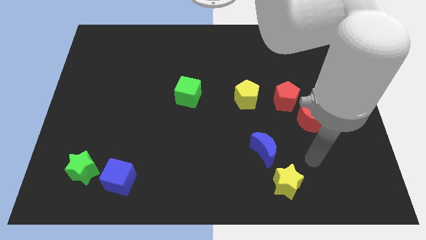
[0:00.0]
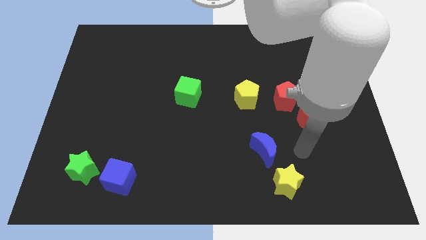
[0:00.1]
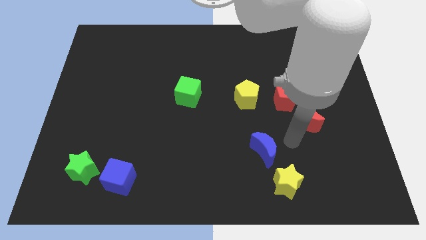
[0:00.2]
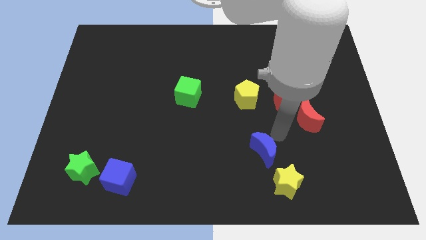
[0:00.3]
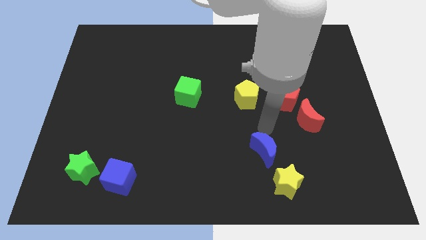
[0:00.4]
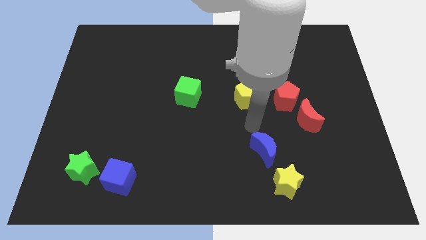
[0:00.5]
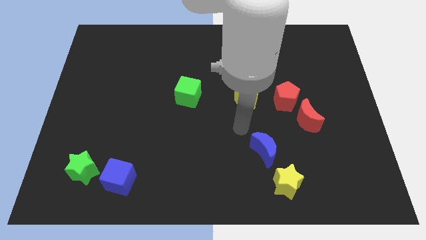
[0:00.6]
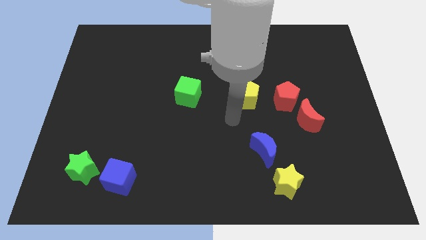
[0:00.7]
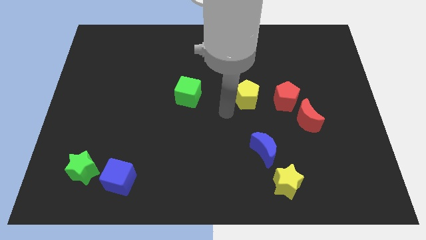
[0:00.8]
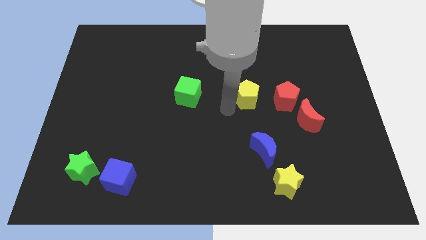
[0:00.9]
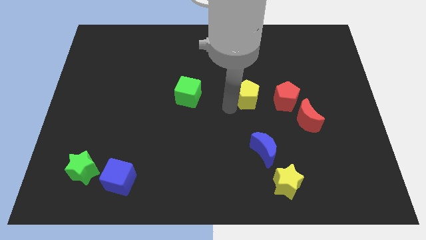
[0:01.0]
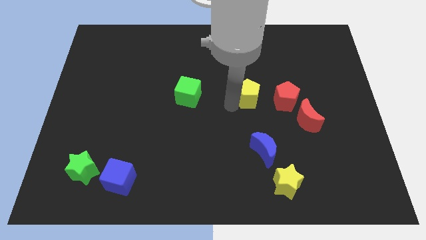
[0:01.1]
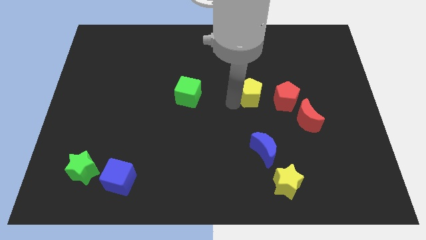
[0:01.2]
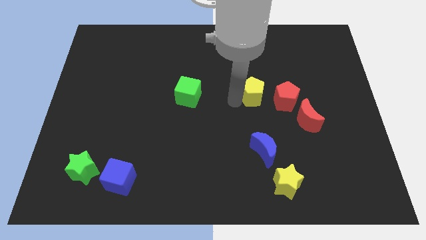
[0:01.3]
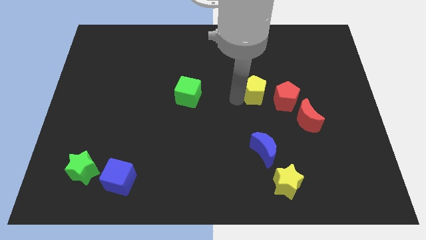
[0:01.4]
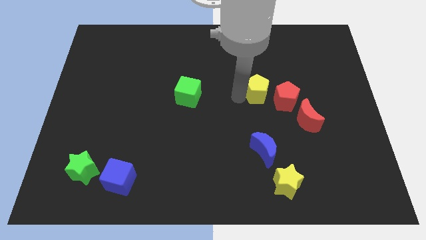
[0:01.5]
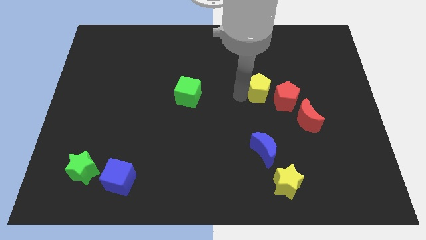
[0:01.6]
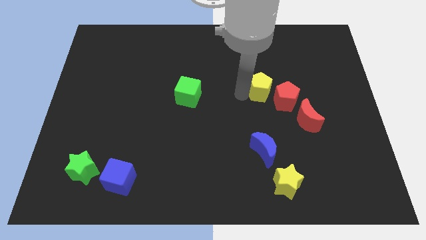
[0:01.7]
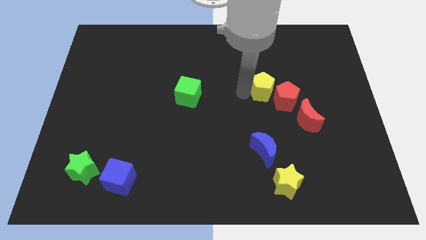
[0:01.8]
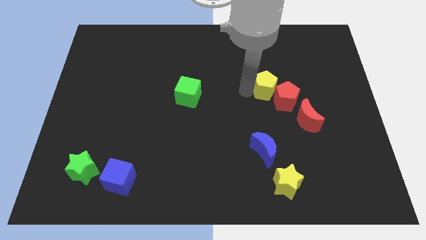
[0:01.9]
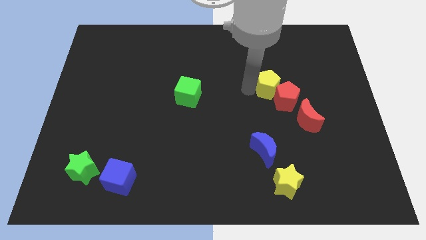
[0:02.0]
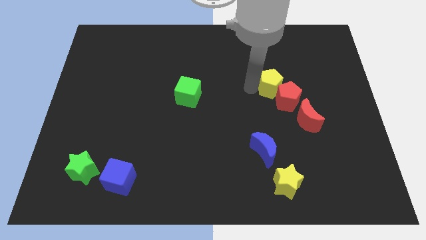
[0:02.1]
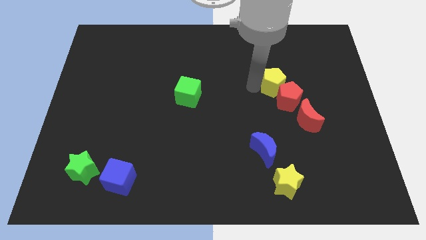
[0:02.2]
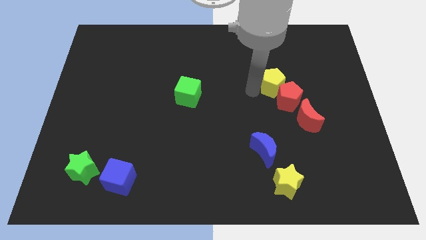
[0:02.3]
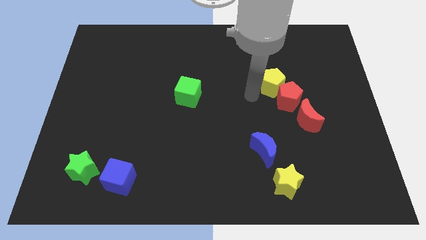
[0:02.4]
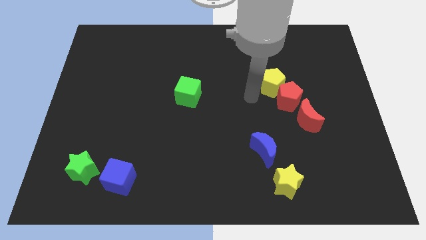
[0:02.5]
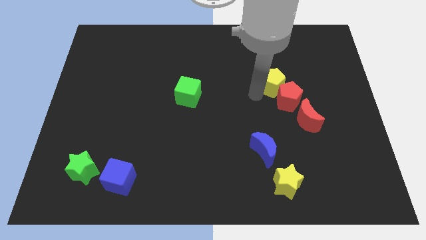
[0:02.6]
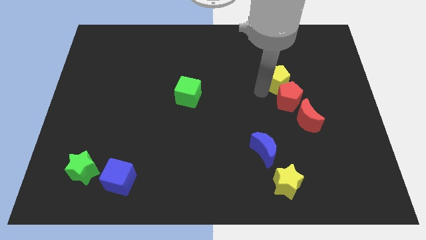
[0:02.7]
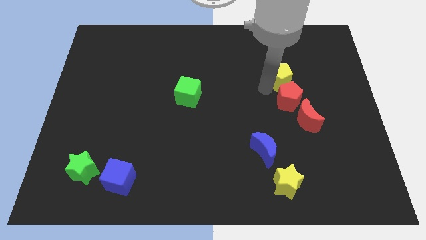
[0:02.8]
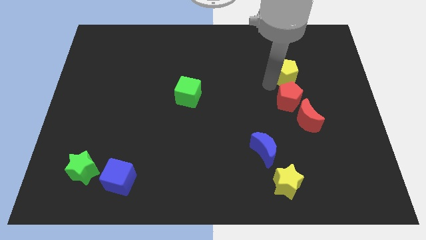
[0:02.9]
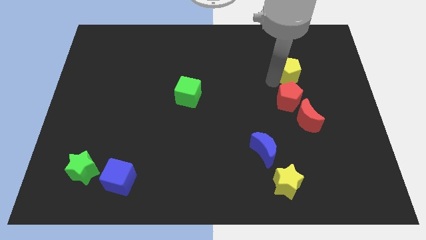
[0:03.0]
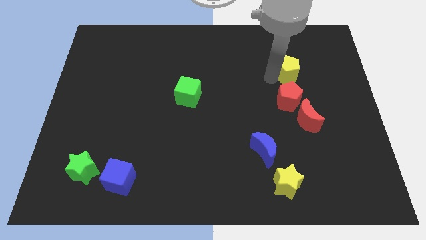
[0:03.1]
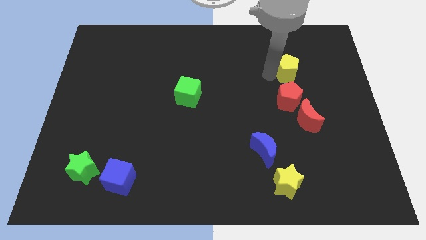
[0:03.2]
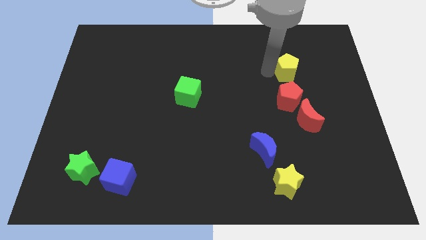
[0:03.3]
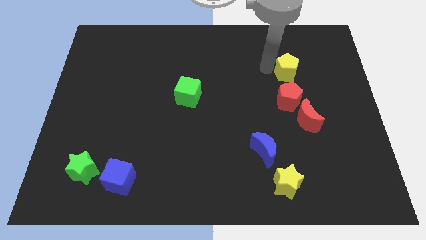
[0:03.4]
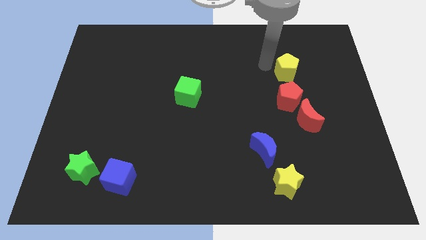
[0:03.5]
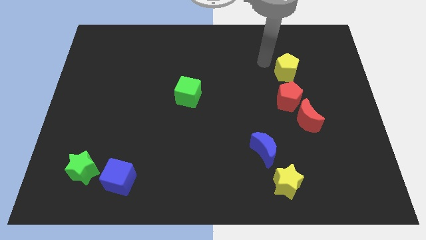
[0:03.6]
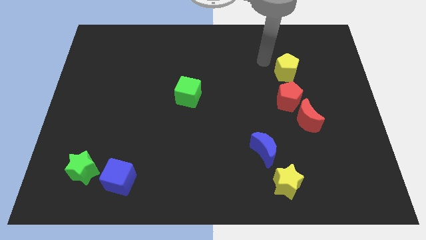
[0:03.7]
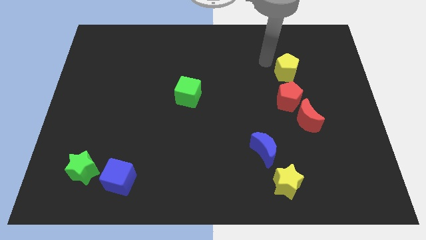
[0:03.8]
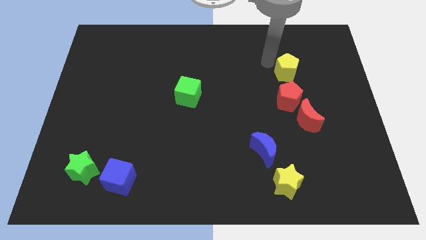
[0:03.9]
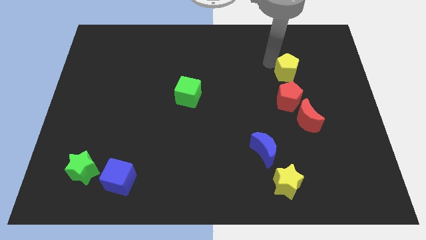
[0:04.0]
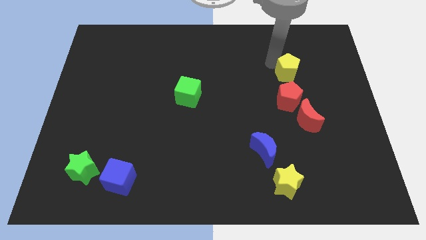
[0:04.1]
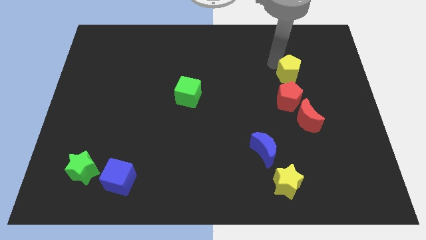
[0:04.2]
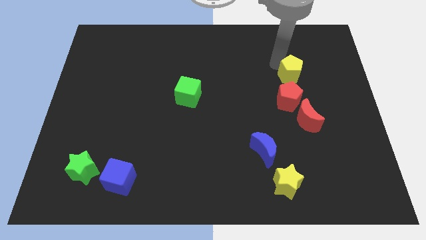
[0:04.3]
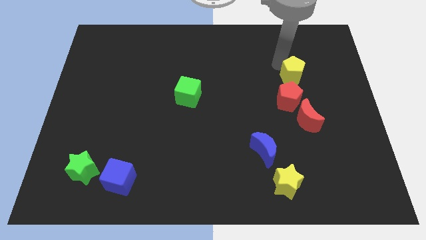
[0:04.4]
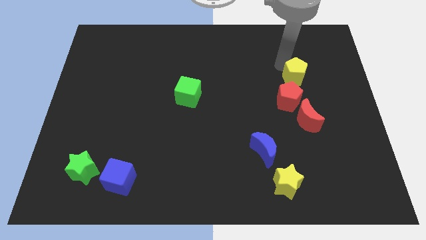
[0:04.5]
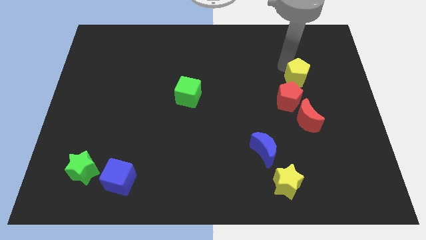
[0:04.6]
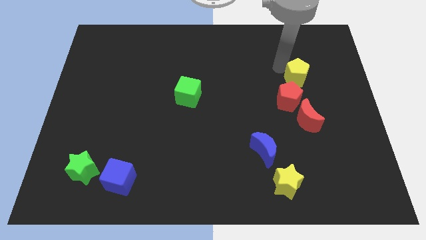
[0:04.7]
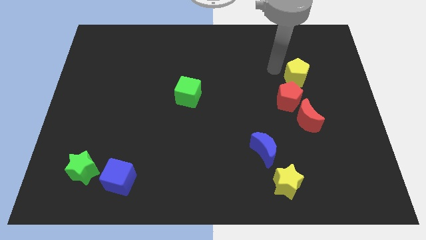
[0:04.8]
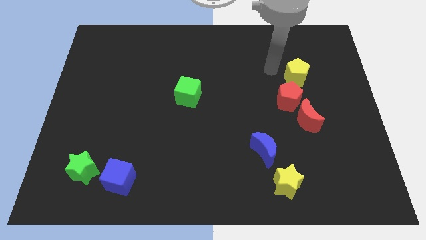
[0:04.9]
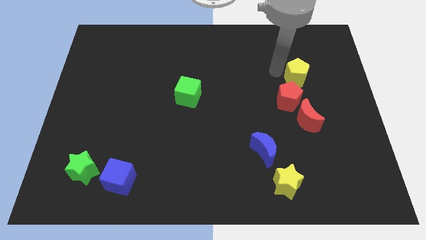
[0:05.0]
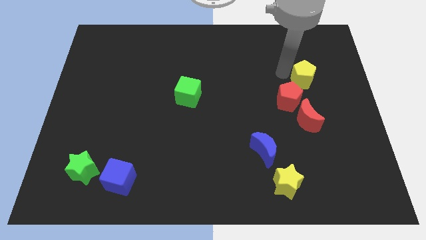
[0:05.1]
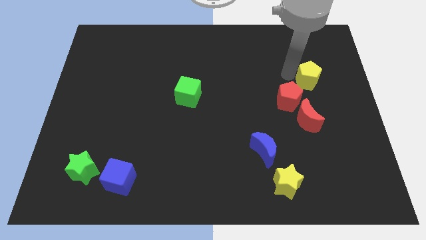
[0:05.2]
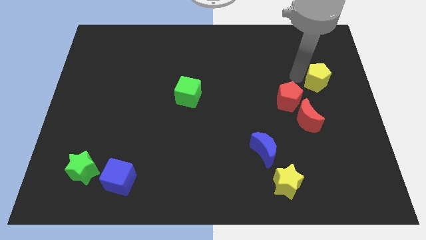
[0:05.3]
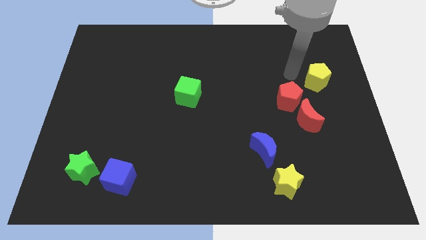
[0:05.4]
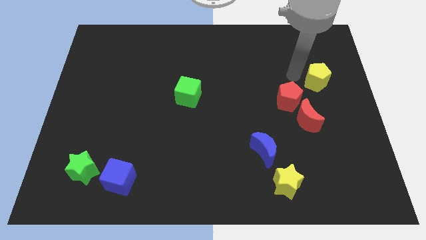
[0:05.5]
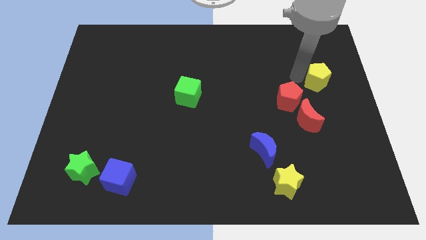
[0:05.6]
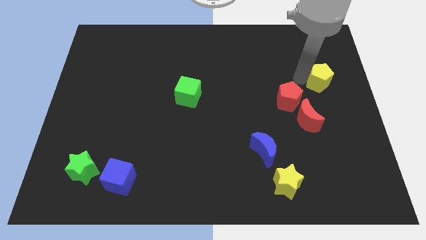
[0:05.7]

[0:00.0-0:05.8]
push the yellow pentagon to the center right

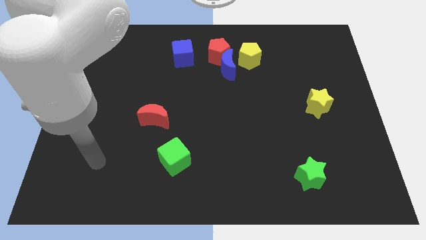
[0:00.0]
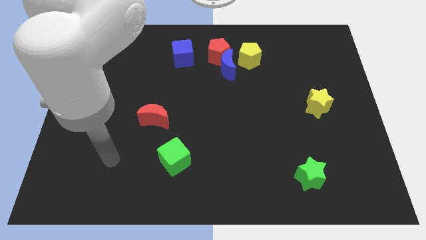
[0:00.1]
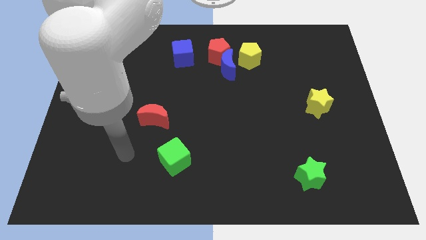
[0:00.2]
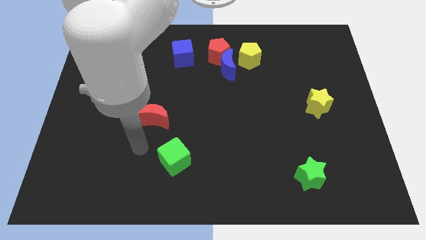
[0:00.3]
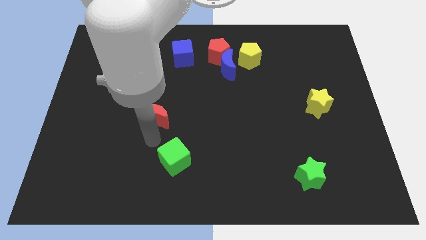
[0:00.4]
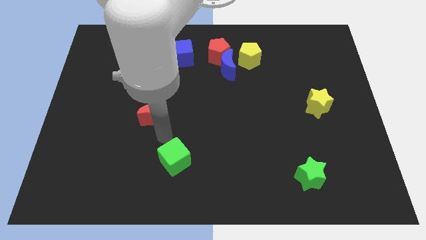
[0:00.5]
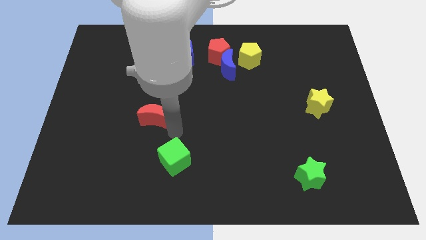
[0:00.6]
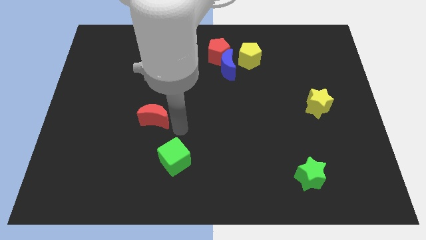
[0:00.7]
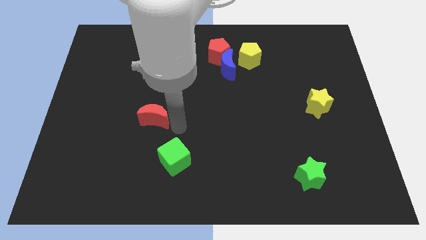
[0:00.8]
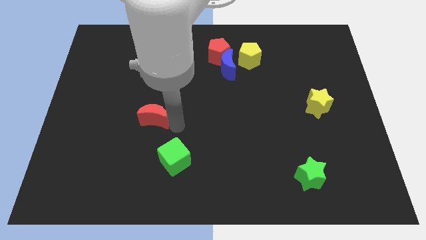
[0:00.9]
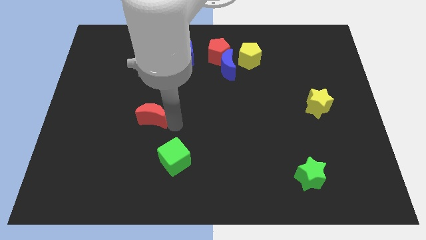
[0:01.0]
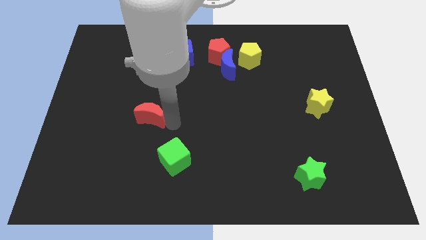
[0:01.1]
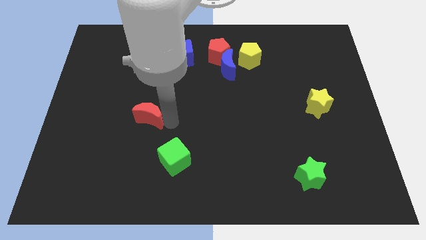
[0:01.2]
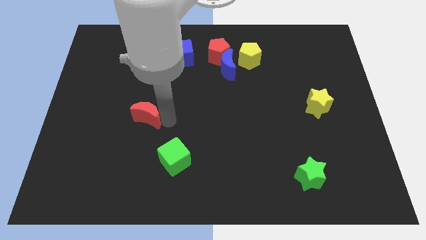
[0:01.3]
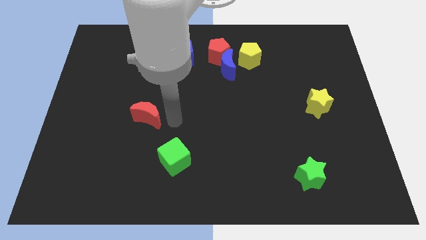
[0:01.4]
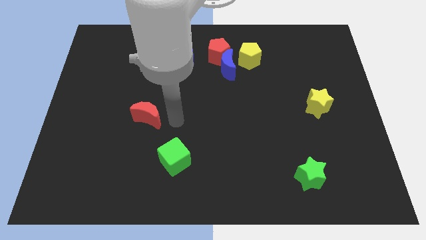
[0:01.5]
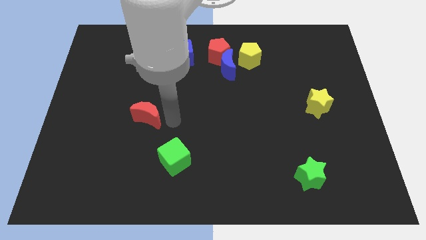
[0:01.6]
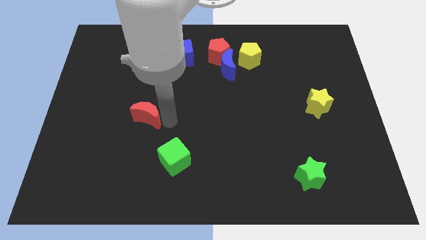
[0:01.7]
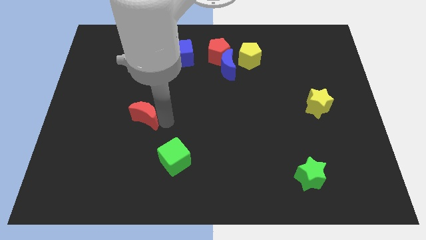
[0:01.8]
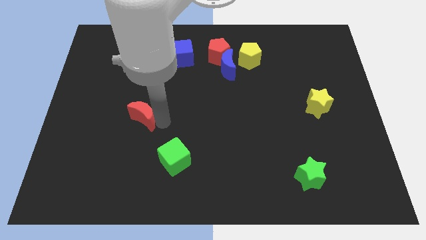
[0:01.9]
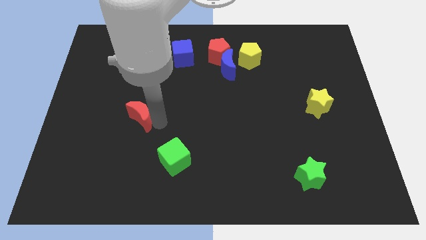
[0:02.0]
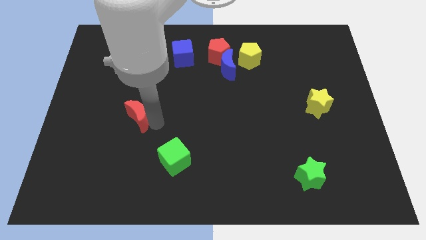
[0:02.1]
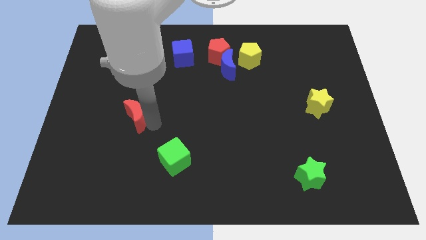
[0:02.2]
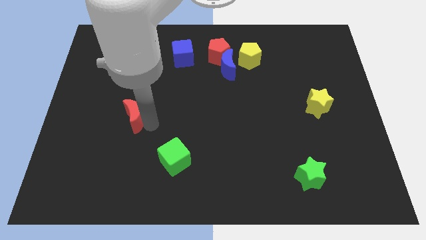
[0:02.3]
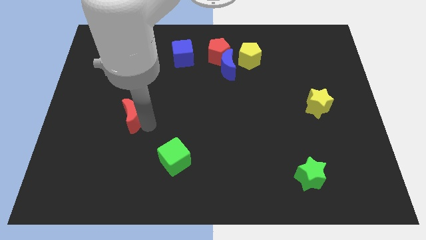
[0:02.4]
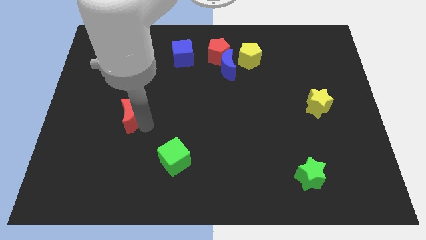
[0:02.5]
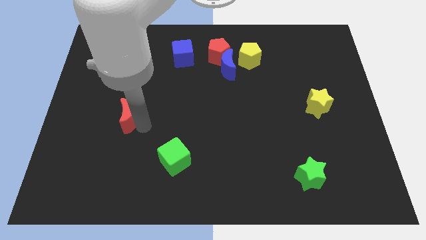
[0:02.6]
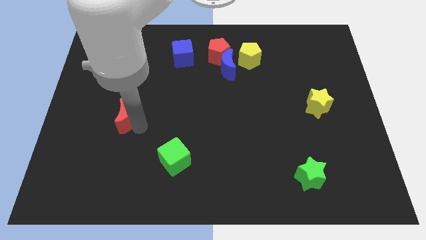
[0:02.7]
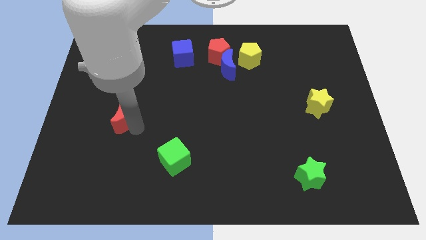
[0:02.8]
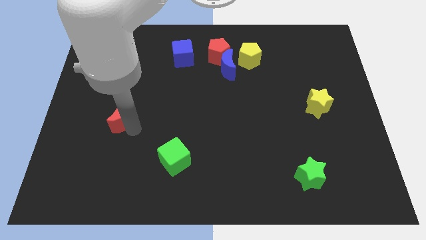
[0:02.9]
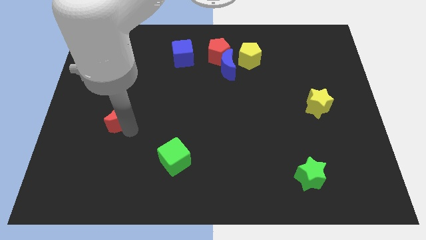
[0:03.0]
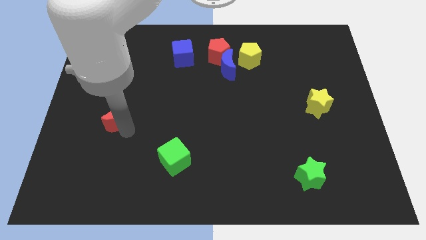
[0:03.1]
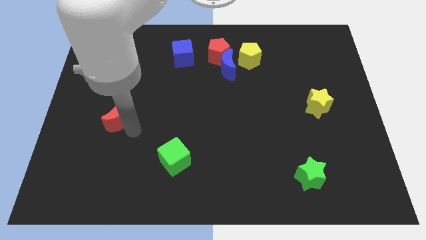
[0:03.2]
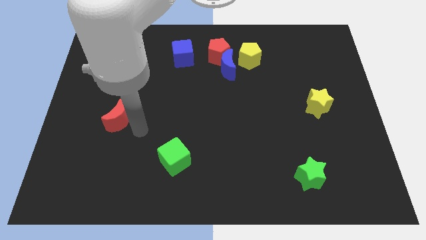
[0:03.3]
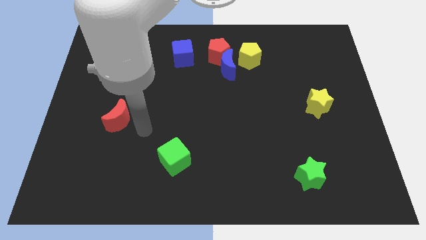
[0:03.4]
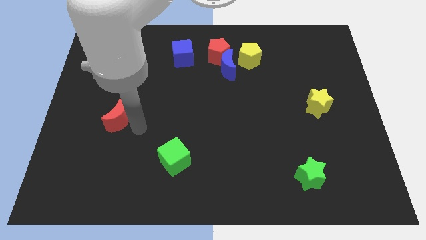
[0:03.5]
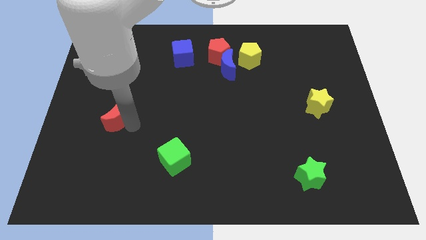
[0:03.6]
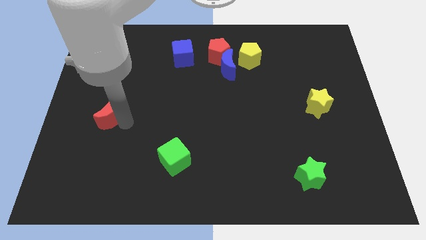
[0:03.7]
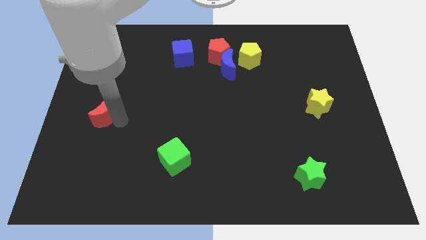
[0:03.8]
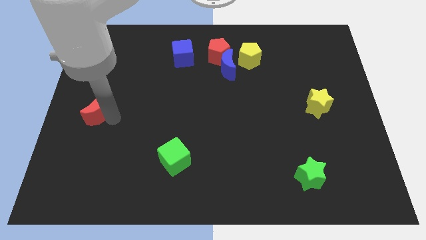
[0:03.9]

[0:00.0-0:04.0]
slide the red moon to the center left
